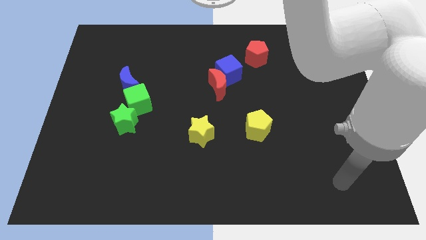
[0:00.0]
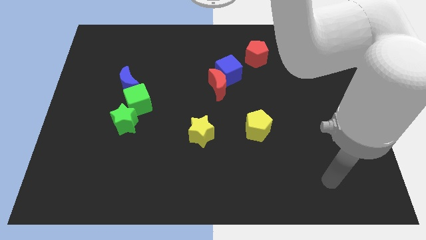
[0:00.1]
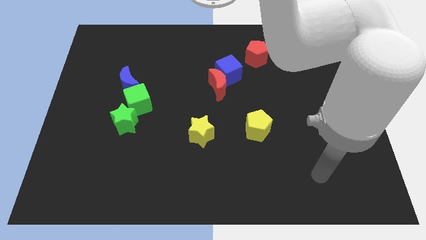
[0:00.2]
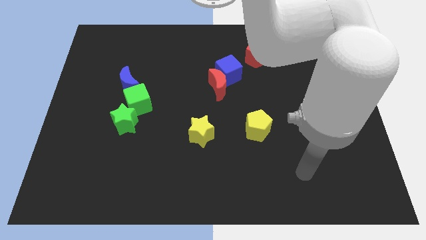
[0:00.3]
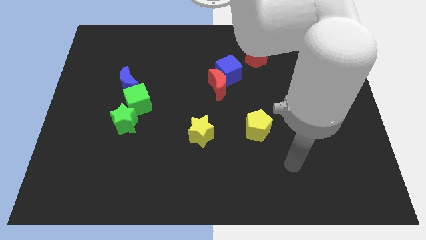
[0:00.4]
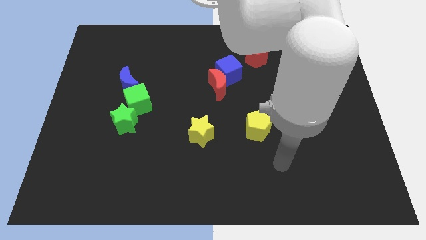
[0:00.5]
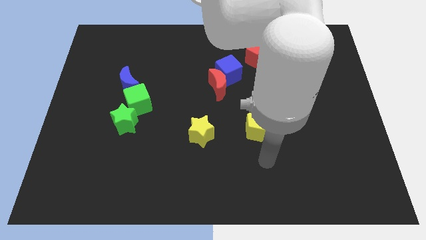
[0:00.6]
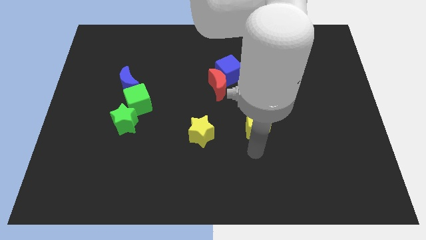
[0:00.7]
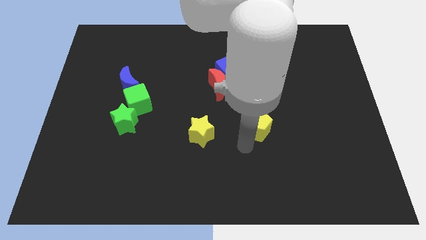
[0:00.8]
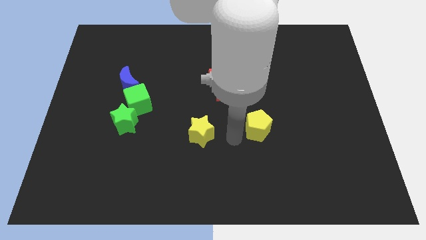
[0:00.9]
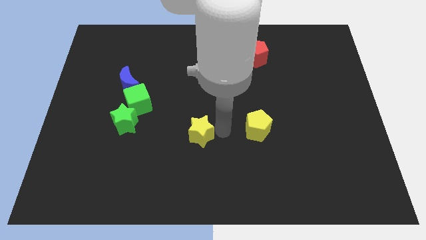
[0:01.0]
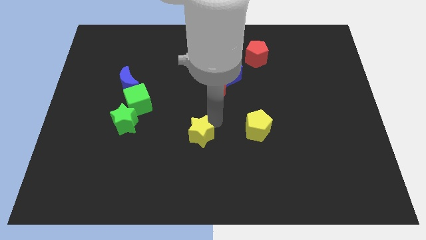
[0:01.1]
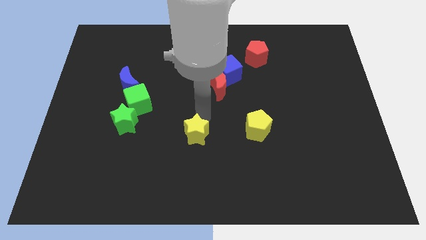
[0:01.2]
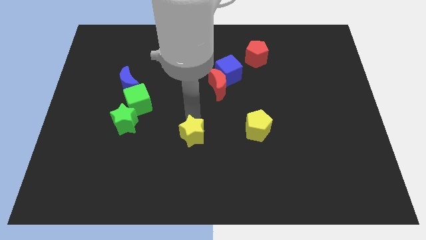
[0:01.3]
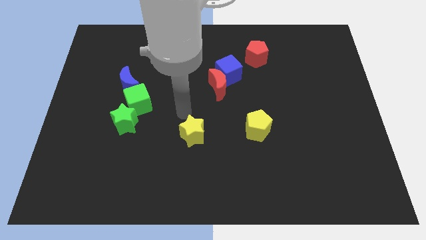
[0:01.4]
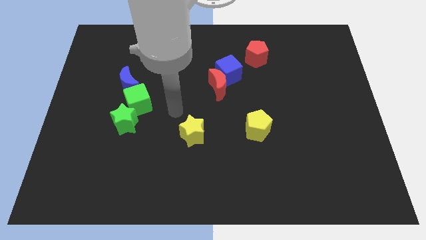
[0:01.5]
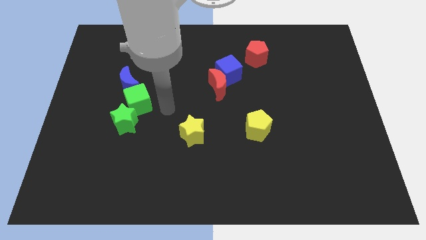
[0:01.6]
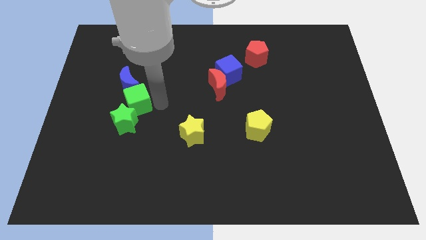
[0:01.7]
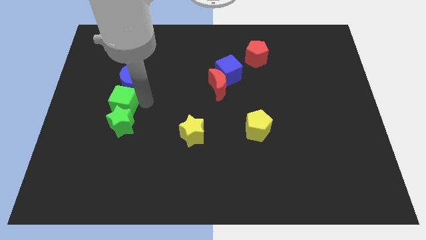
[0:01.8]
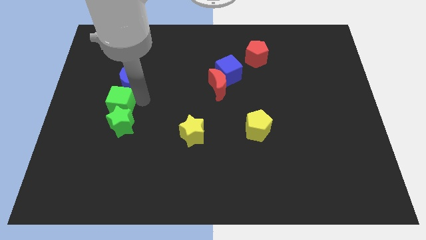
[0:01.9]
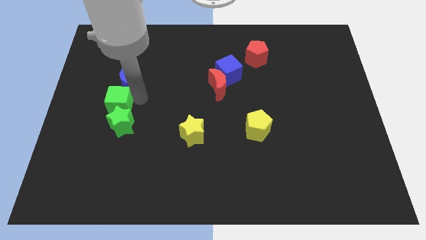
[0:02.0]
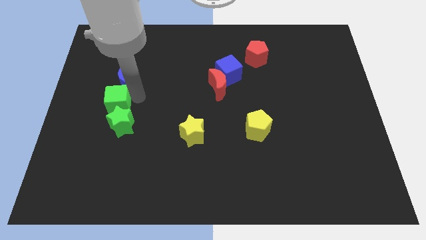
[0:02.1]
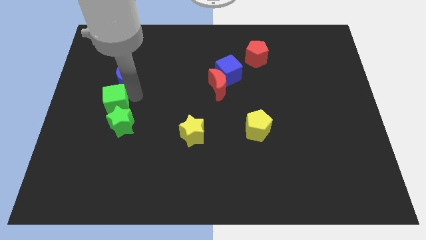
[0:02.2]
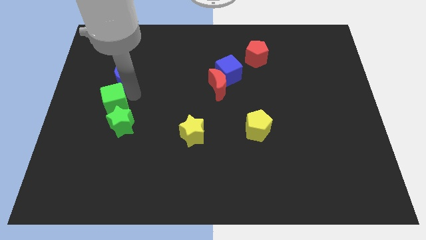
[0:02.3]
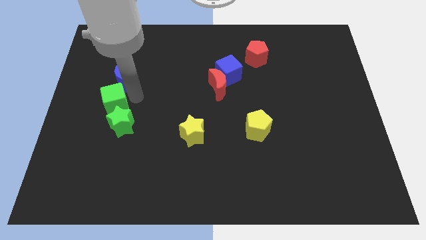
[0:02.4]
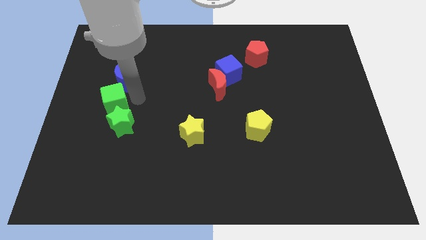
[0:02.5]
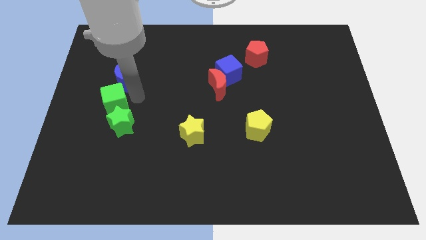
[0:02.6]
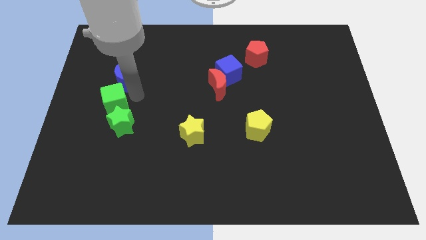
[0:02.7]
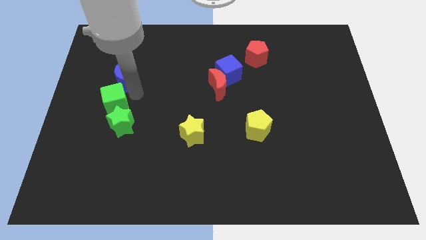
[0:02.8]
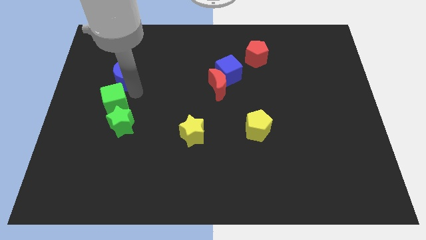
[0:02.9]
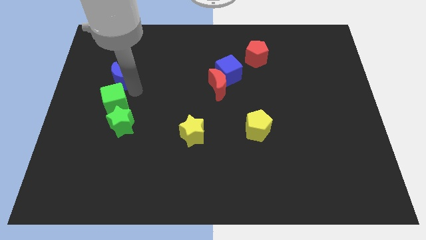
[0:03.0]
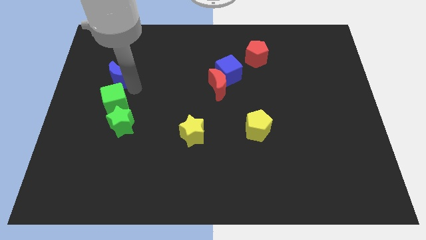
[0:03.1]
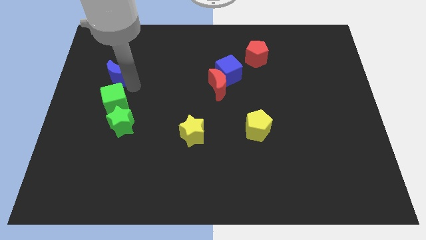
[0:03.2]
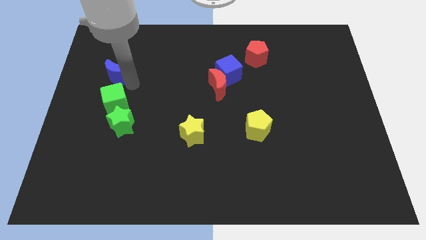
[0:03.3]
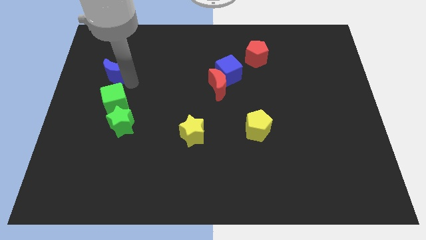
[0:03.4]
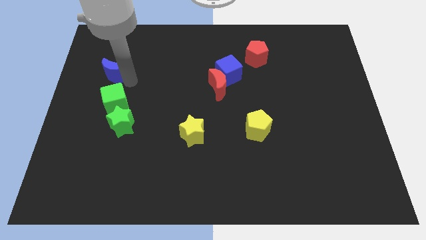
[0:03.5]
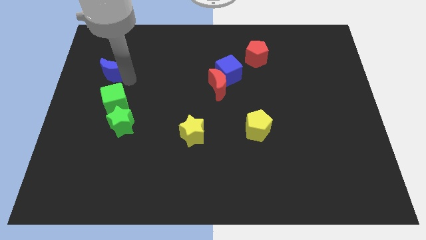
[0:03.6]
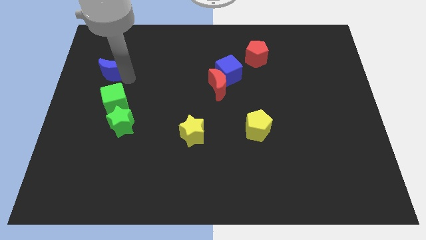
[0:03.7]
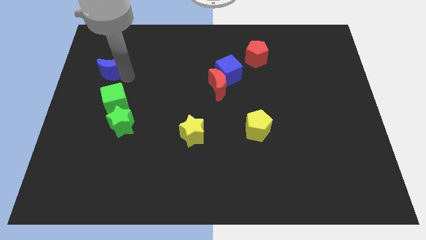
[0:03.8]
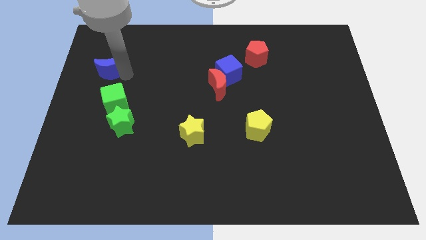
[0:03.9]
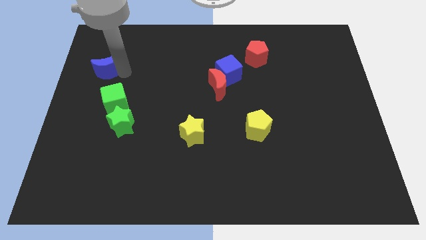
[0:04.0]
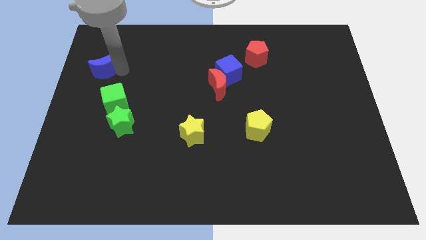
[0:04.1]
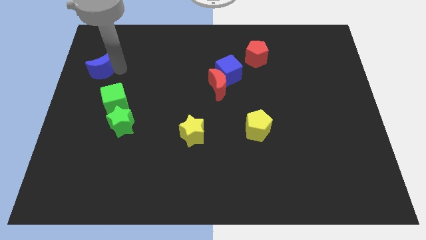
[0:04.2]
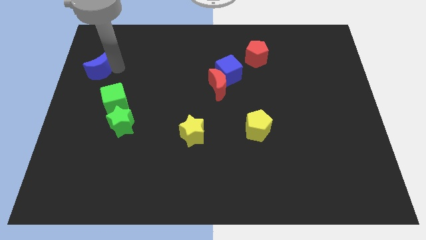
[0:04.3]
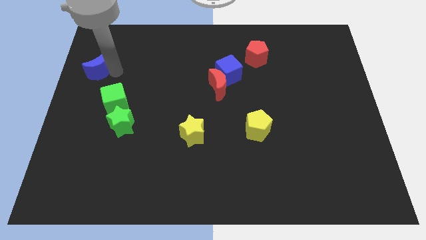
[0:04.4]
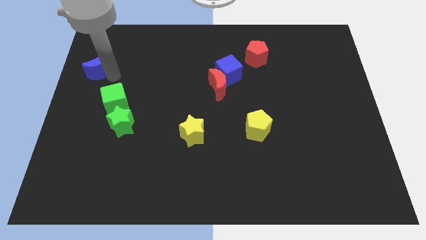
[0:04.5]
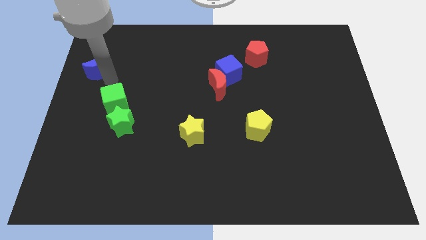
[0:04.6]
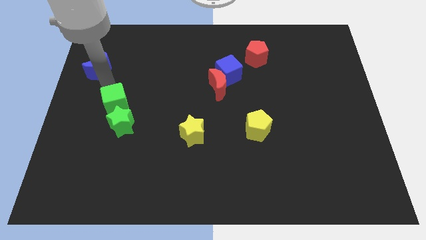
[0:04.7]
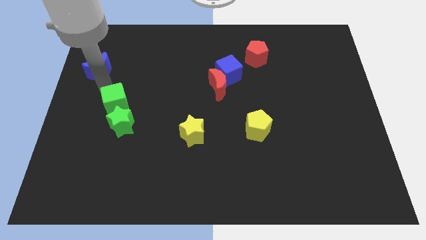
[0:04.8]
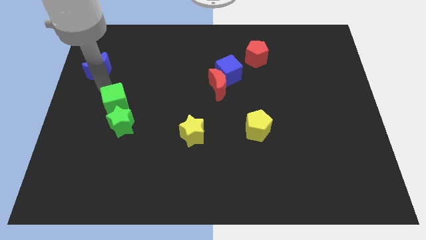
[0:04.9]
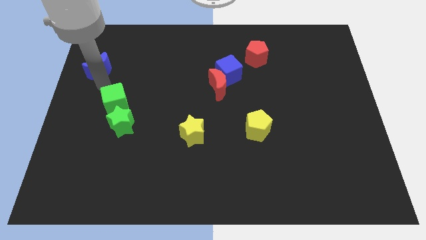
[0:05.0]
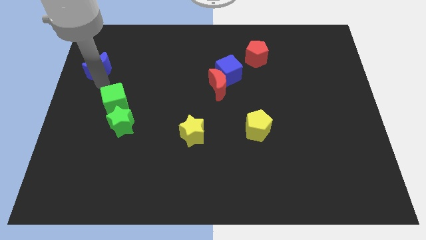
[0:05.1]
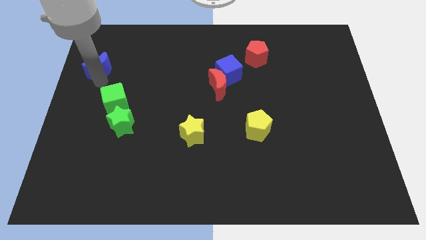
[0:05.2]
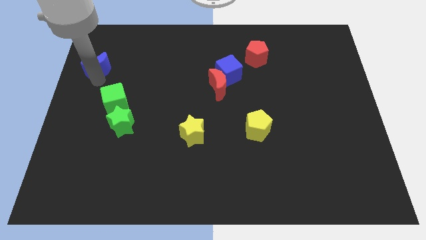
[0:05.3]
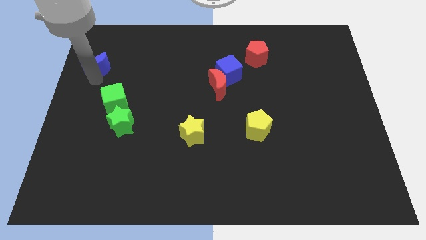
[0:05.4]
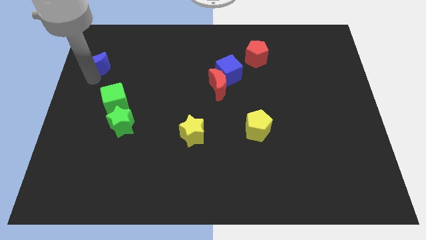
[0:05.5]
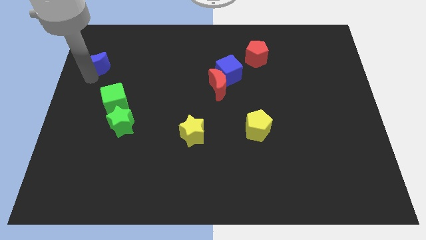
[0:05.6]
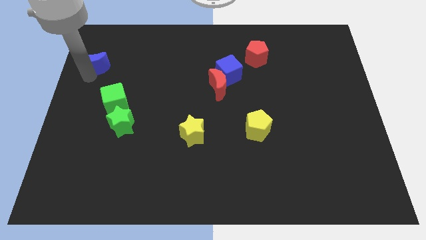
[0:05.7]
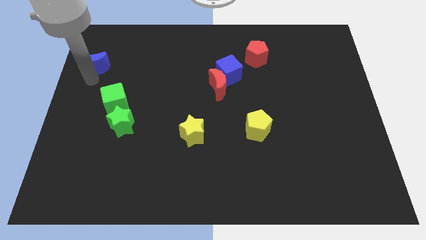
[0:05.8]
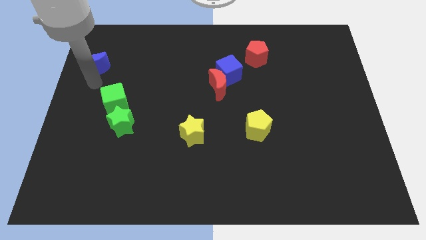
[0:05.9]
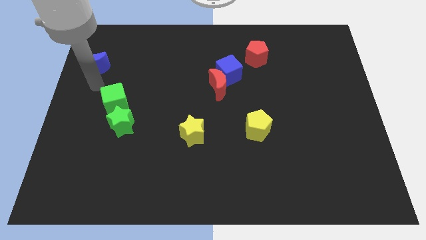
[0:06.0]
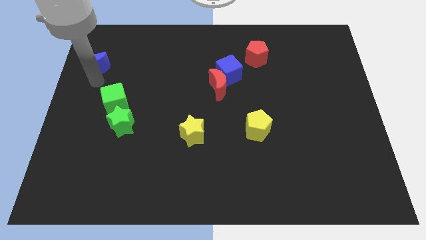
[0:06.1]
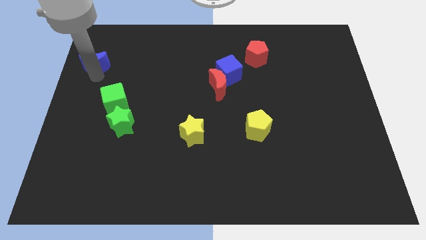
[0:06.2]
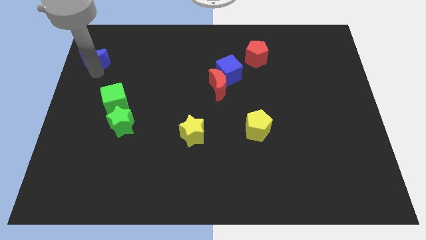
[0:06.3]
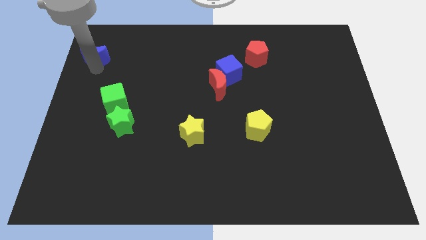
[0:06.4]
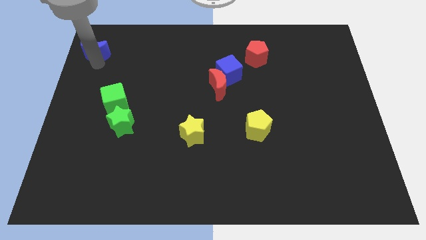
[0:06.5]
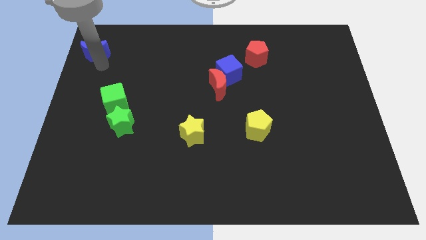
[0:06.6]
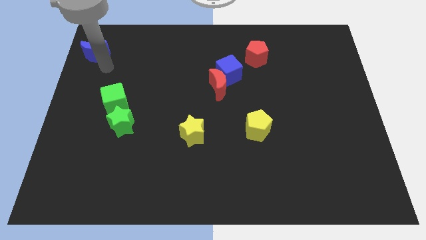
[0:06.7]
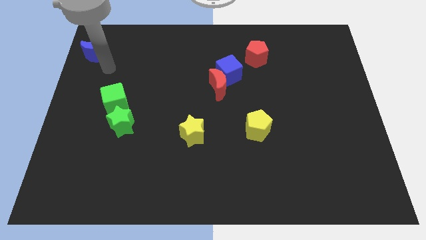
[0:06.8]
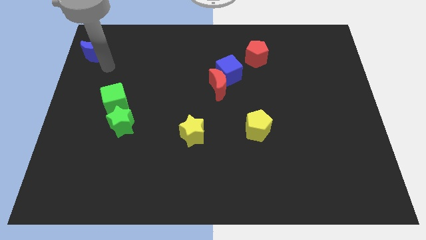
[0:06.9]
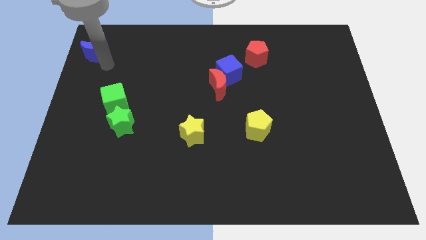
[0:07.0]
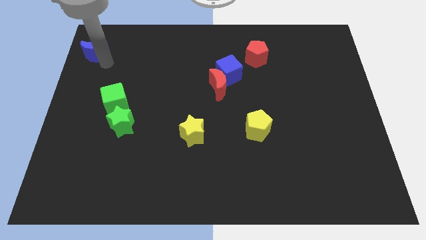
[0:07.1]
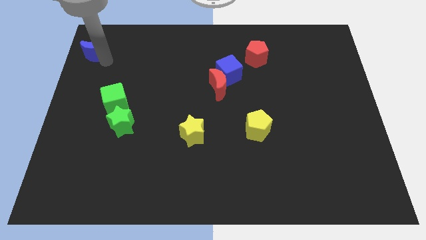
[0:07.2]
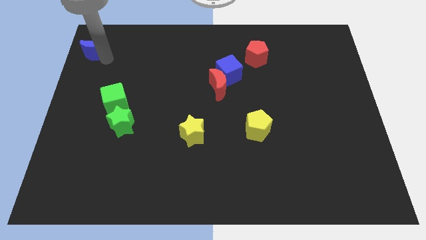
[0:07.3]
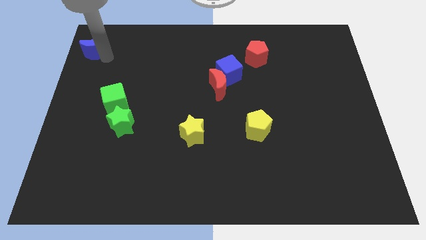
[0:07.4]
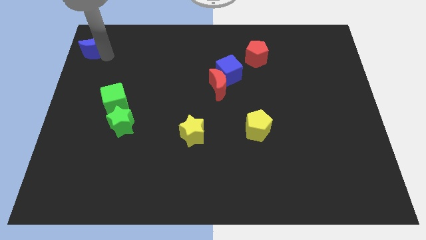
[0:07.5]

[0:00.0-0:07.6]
put the blue moon to the top left of the board
